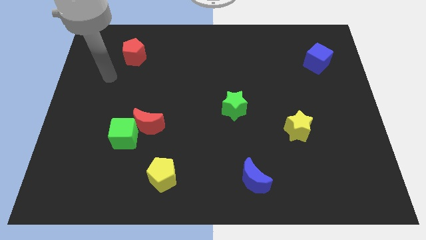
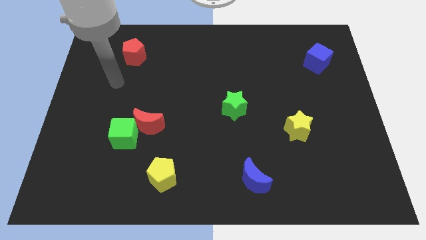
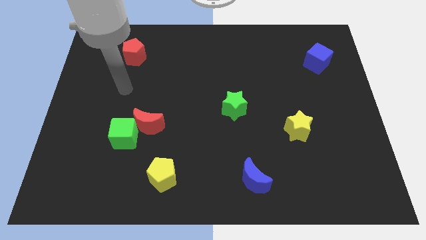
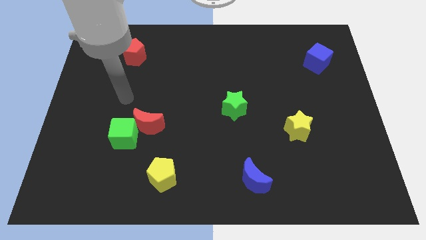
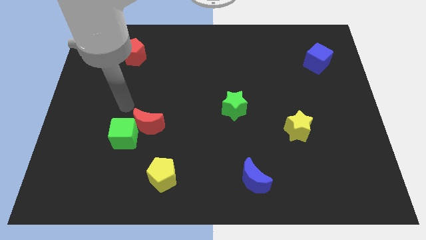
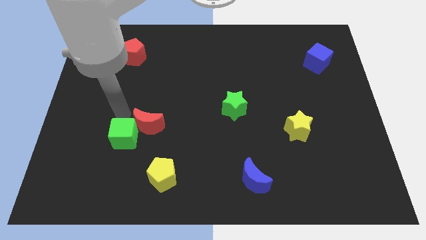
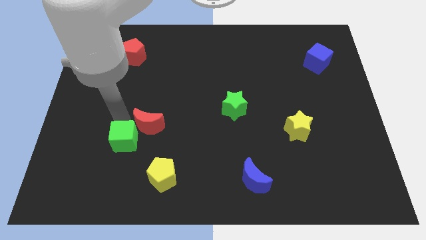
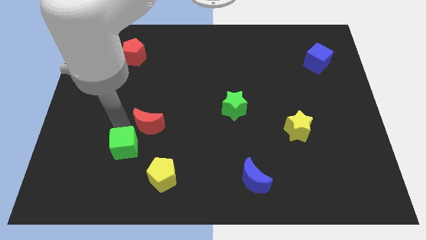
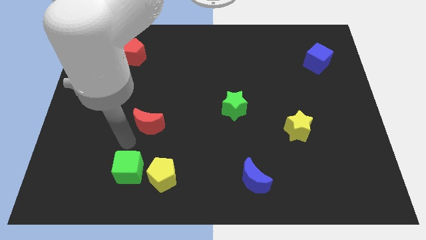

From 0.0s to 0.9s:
pull the red moon apart from the green cube

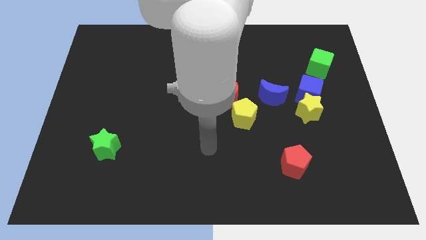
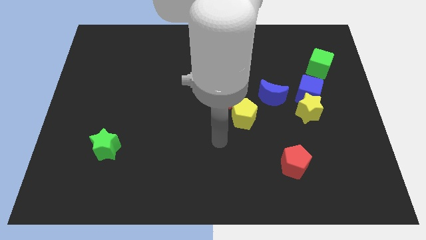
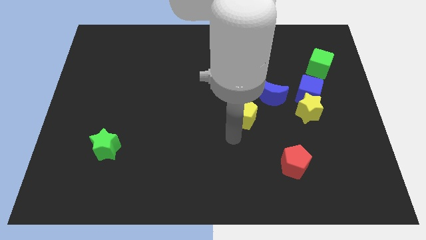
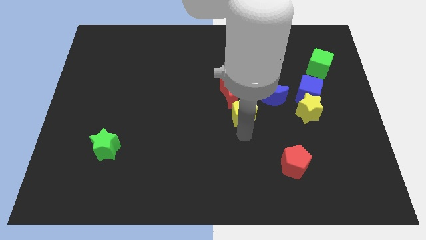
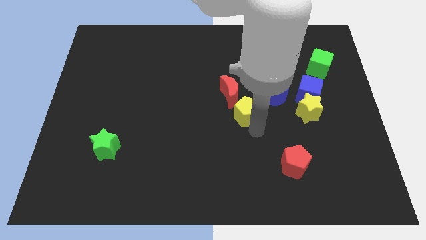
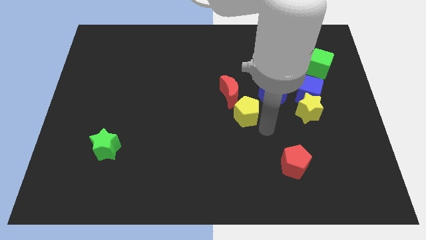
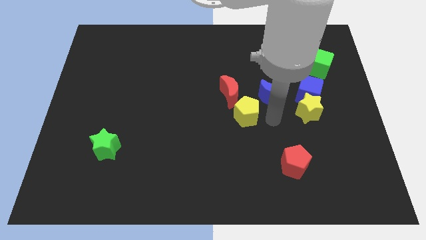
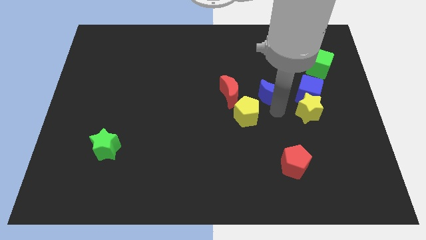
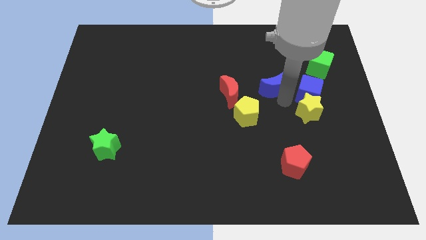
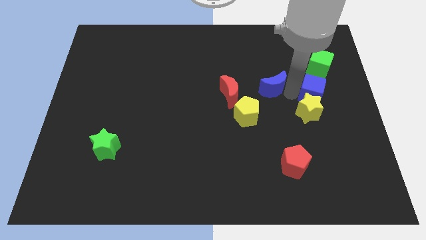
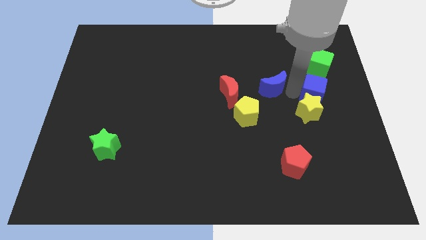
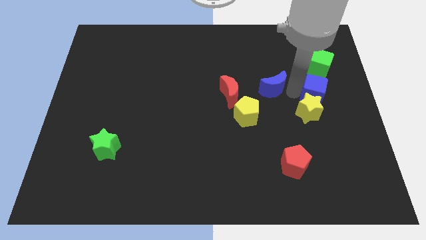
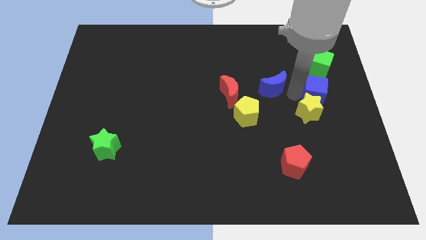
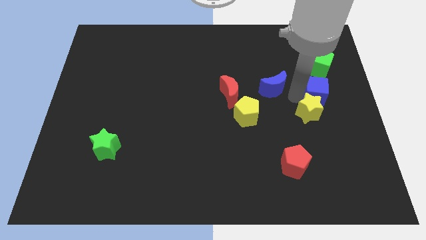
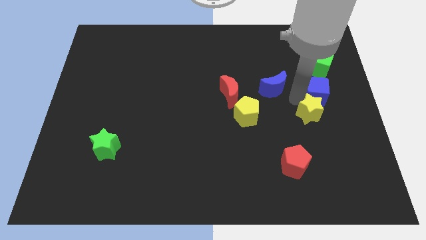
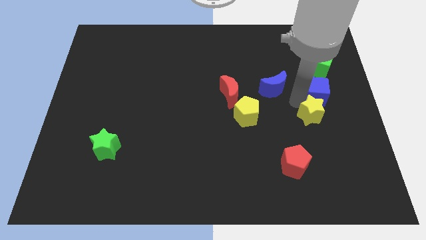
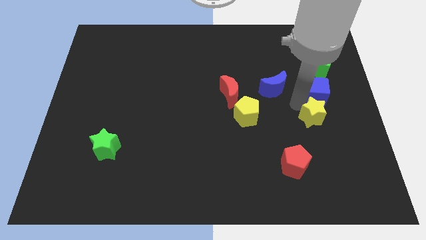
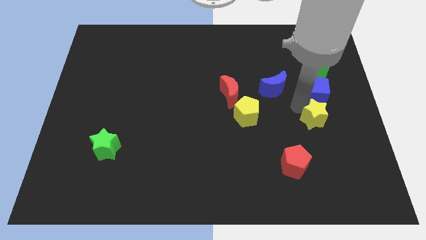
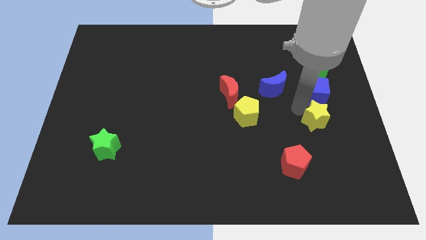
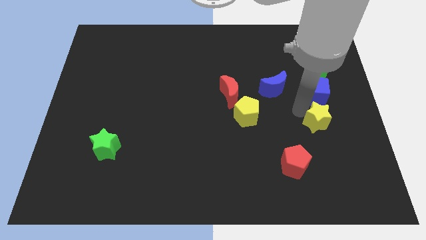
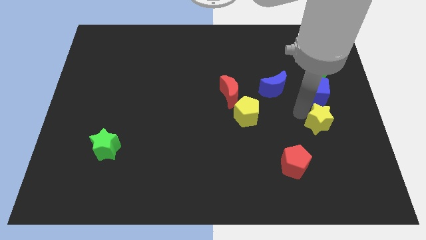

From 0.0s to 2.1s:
move the yellow star away from the blue cube and blue moon

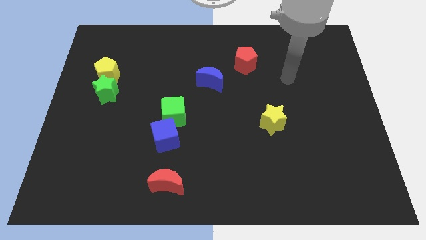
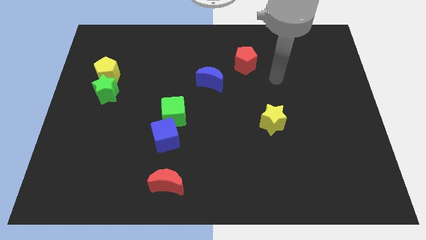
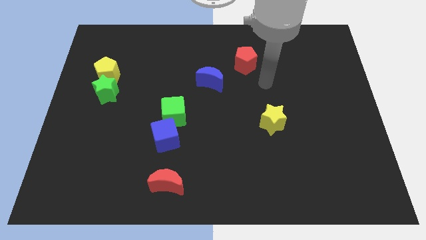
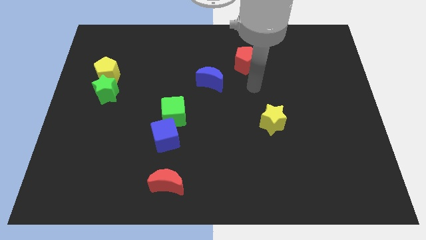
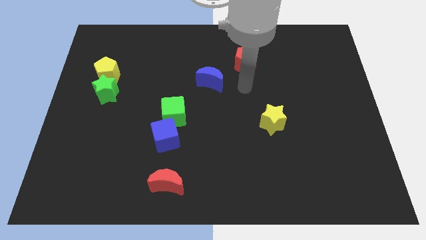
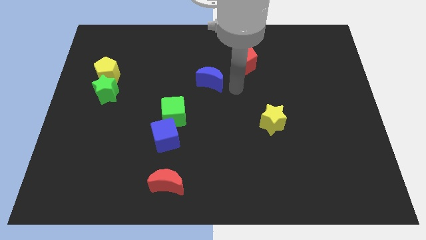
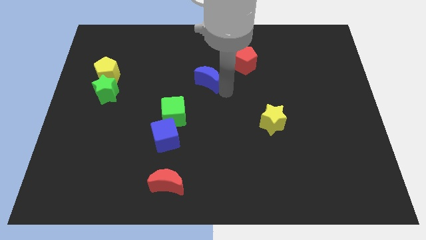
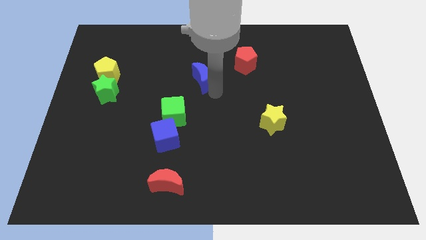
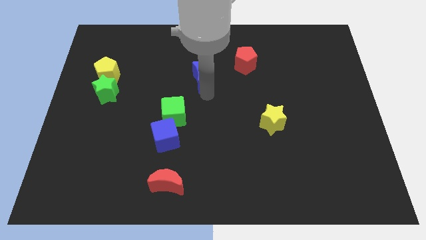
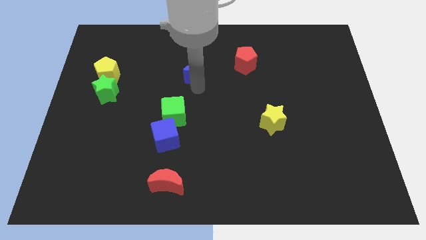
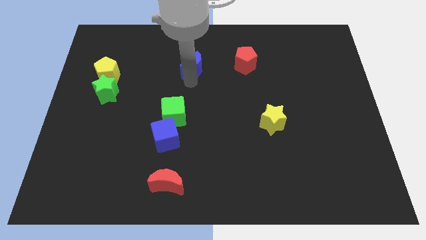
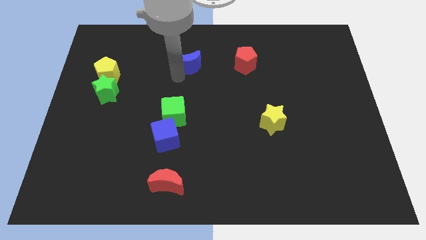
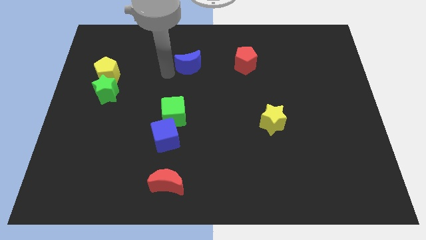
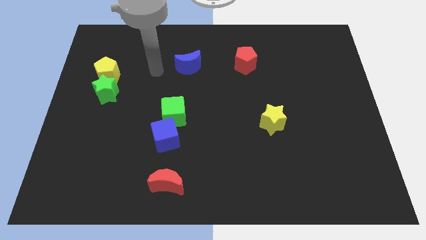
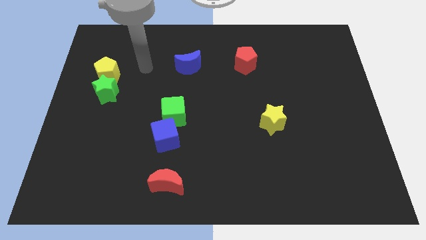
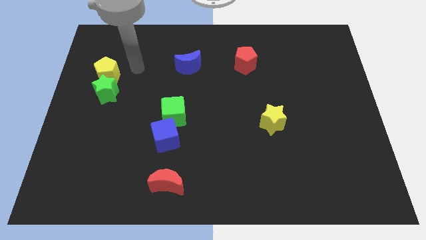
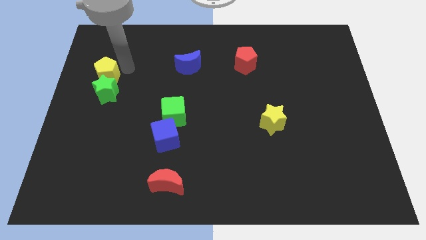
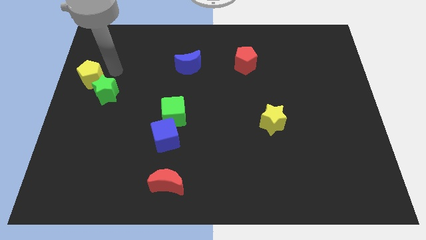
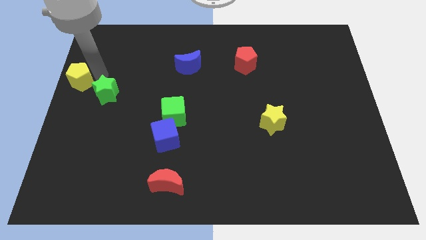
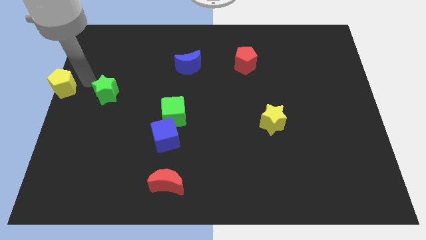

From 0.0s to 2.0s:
pull the green star apart from the yellow pentagon

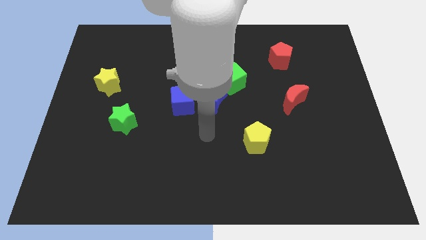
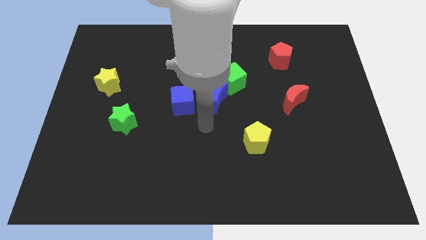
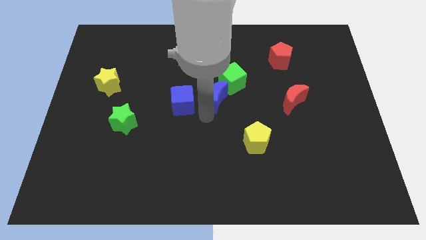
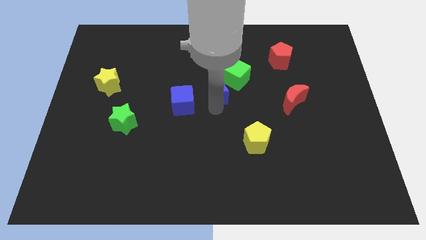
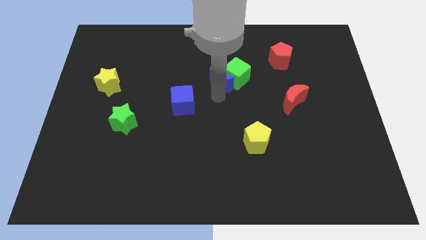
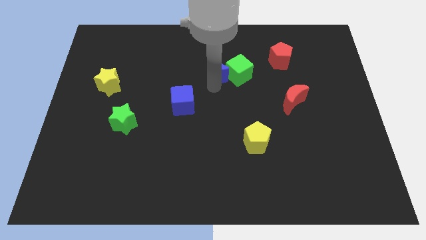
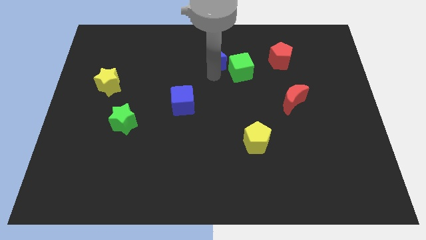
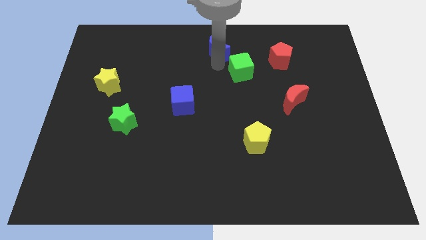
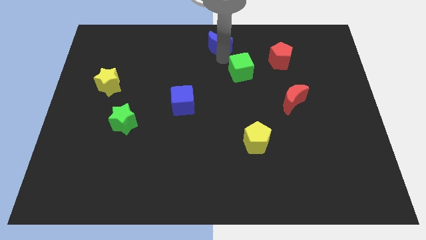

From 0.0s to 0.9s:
move the green cube away from the blue moon

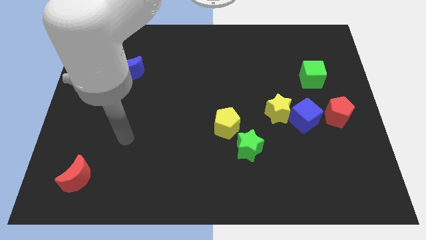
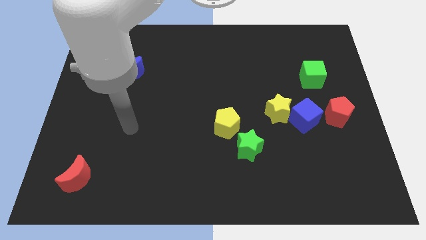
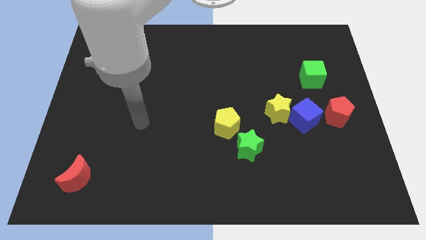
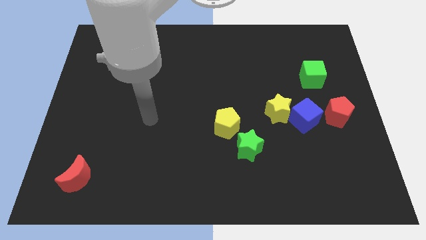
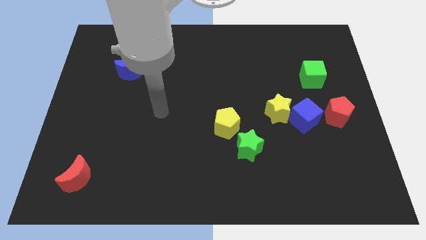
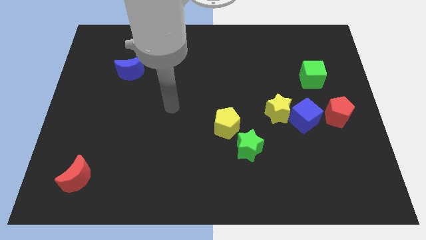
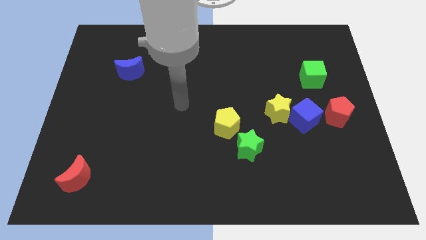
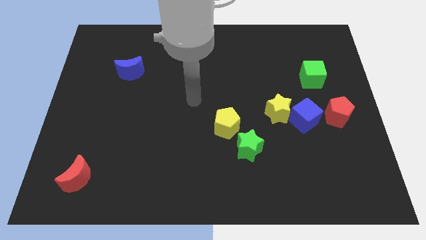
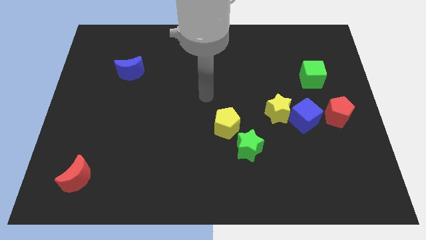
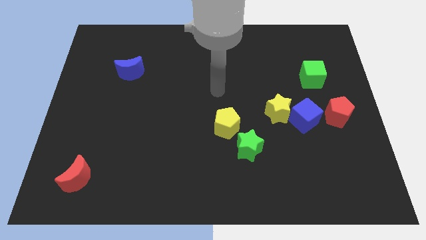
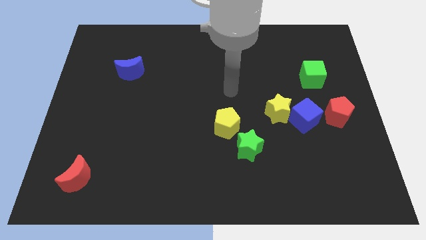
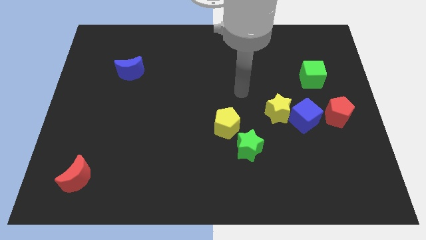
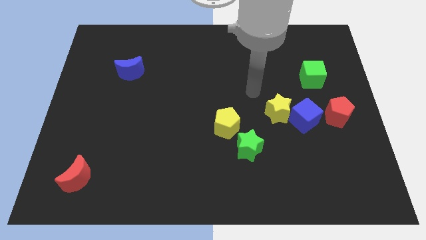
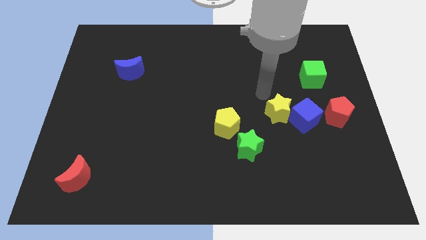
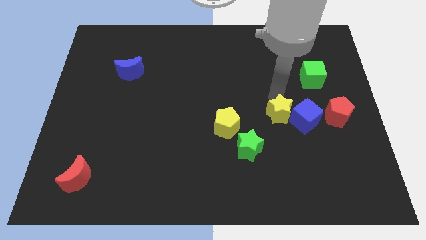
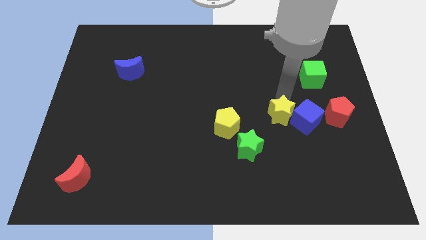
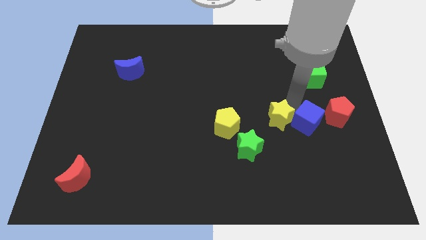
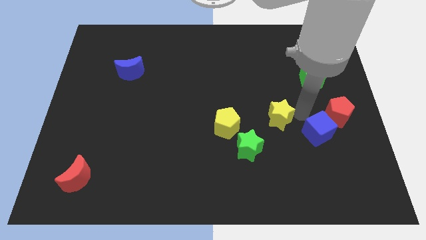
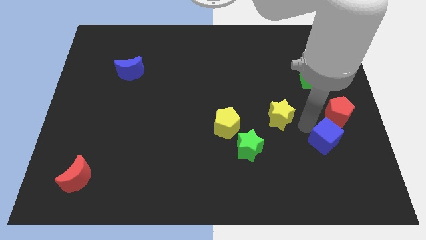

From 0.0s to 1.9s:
pull the yellow star apart from the blue cube

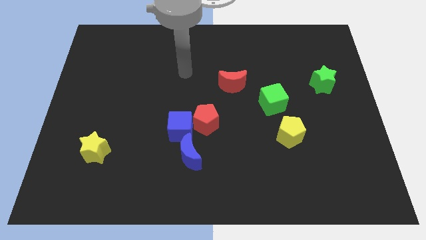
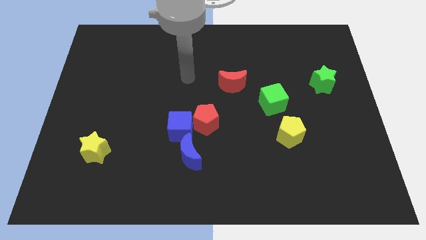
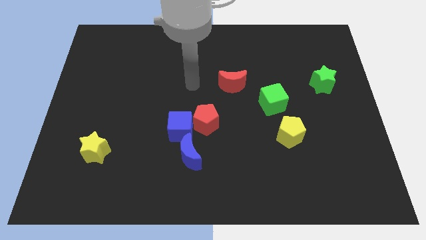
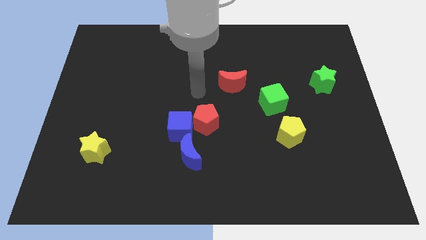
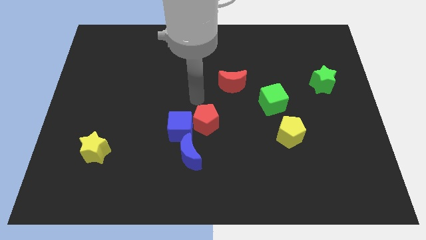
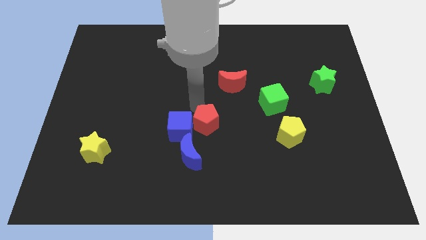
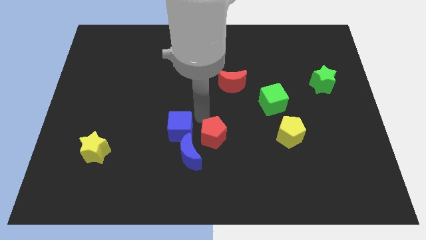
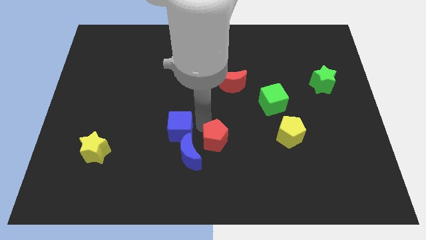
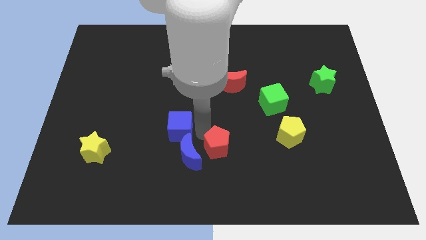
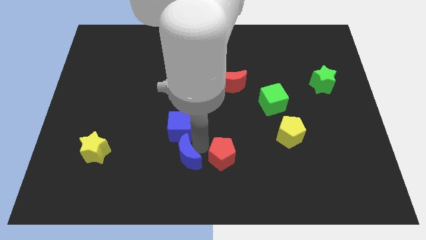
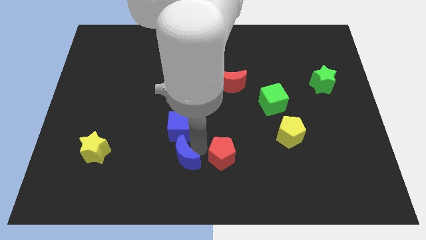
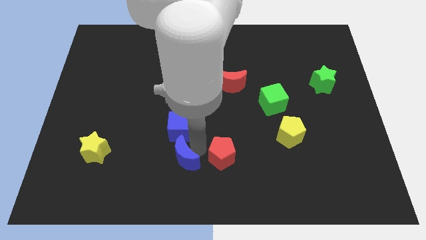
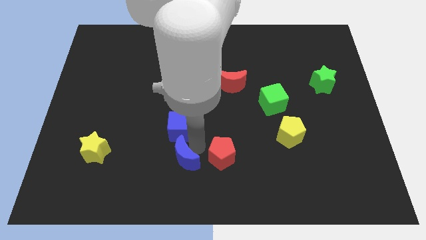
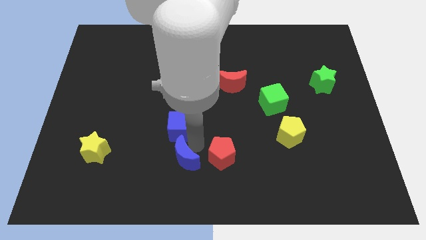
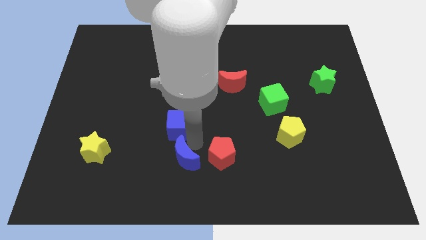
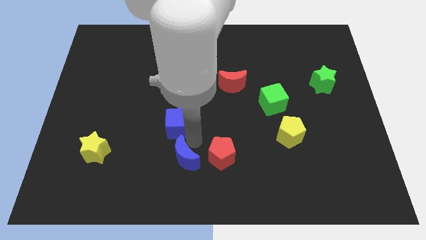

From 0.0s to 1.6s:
separate the blue cube from the red pentagon and blue moon

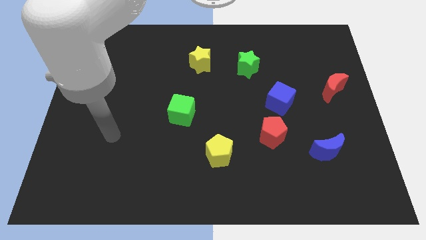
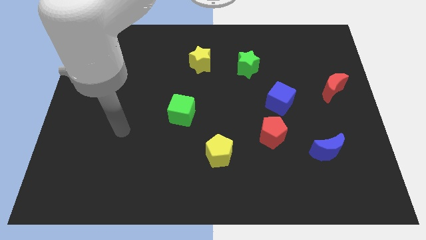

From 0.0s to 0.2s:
move the red pentagon away from the blue cube
